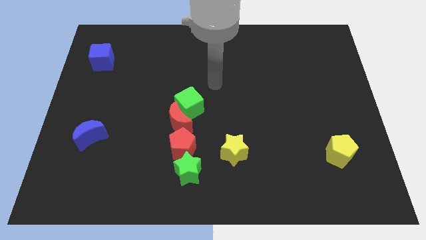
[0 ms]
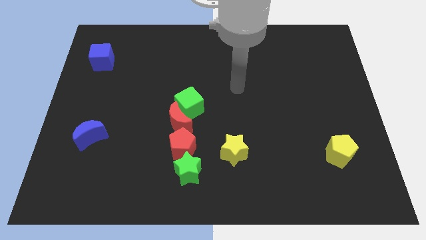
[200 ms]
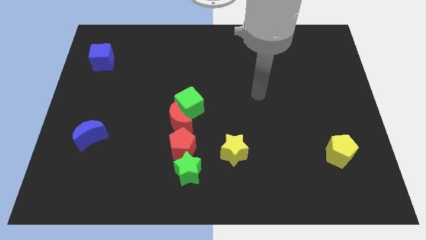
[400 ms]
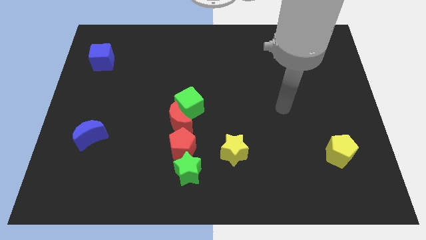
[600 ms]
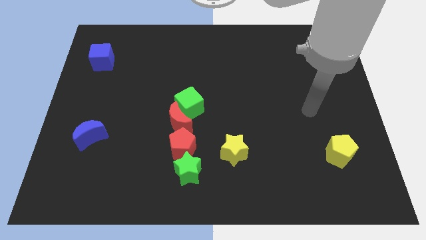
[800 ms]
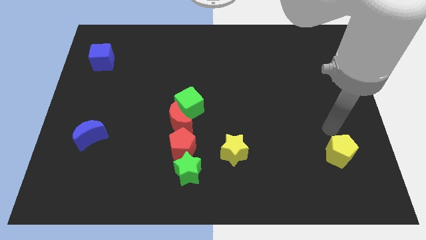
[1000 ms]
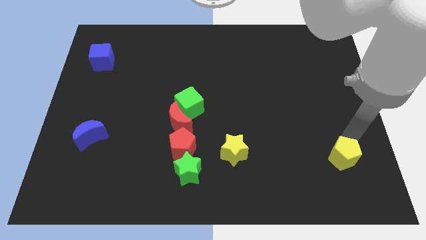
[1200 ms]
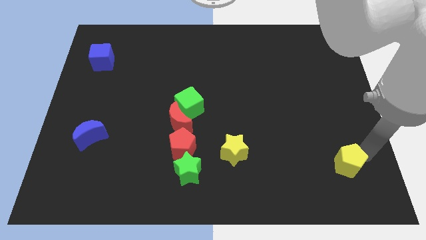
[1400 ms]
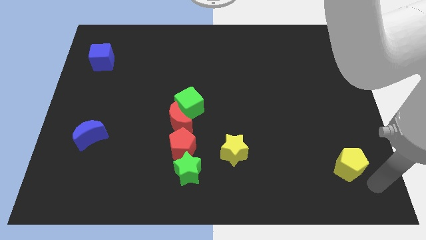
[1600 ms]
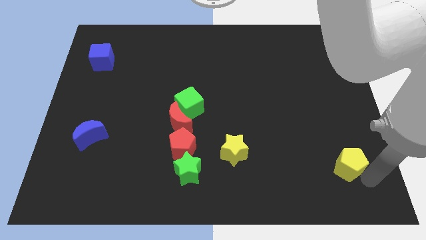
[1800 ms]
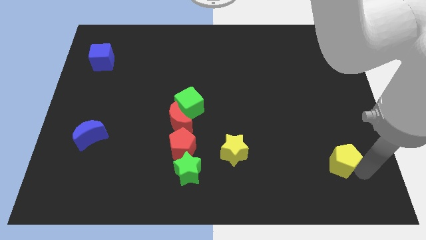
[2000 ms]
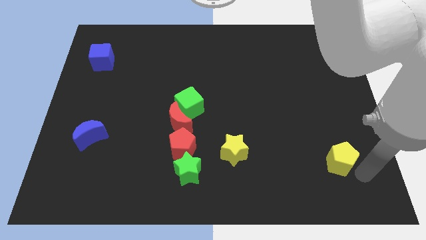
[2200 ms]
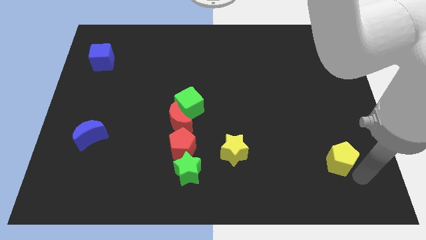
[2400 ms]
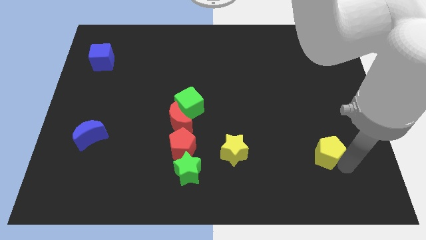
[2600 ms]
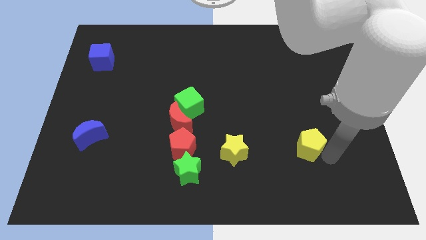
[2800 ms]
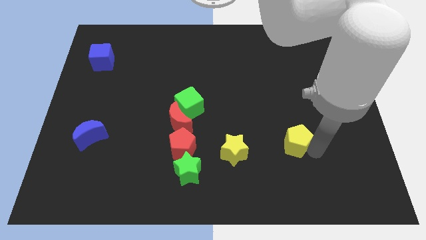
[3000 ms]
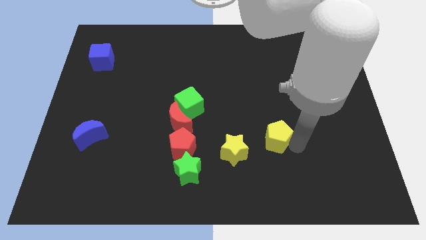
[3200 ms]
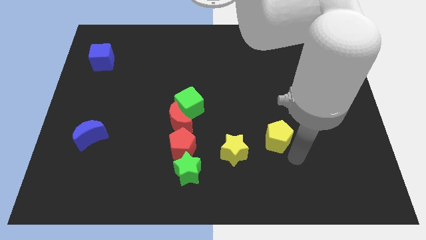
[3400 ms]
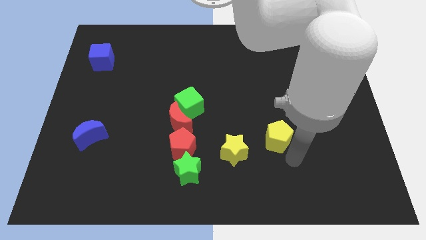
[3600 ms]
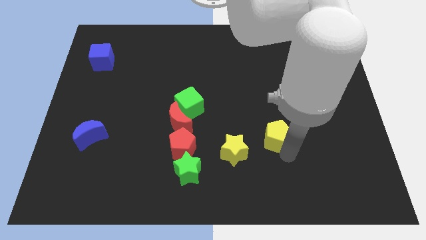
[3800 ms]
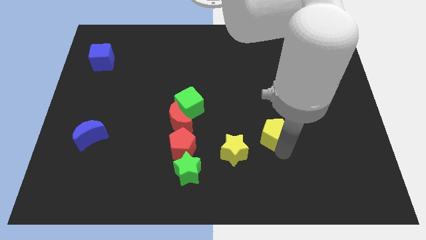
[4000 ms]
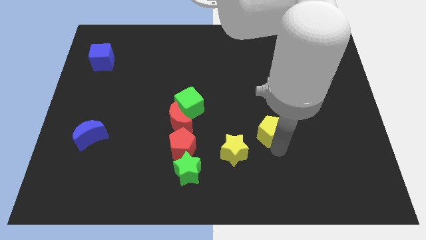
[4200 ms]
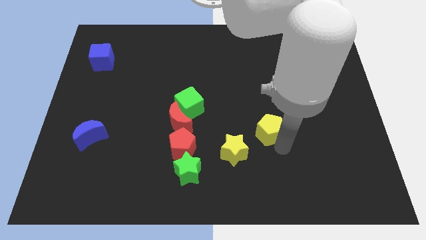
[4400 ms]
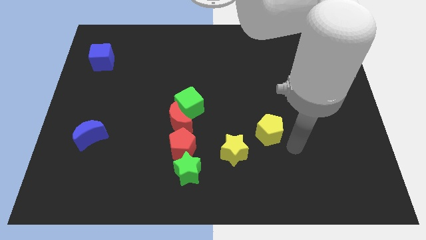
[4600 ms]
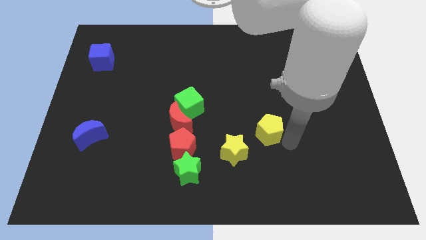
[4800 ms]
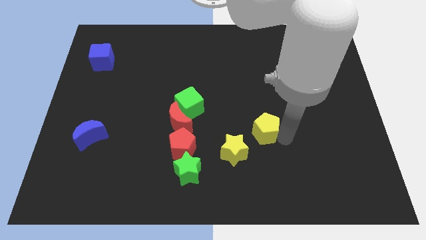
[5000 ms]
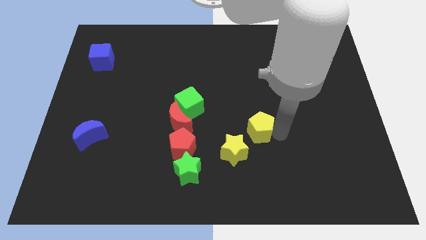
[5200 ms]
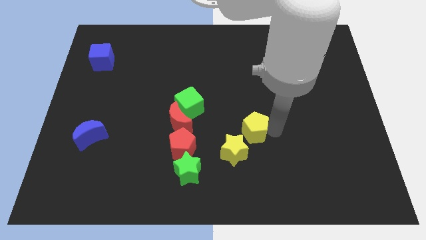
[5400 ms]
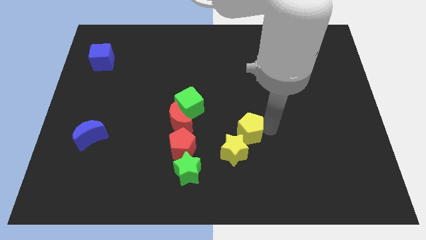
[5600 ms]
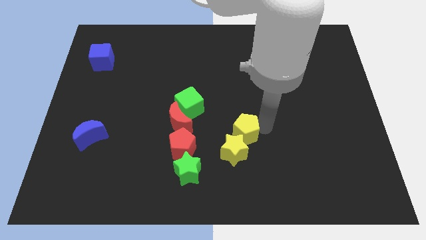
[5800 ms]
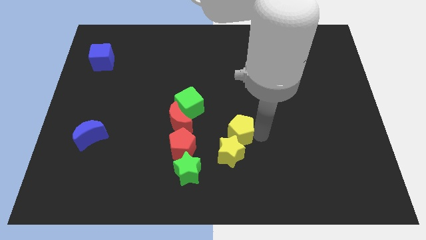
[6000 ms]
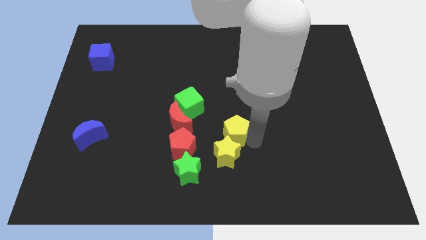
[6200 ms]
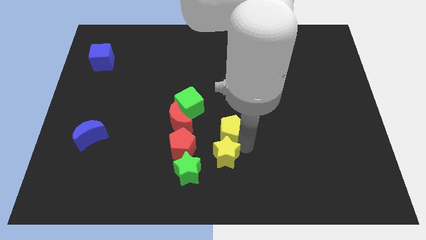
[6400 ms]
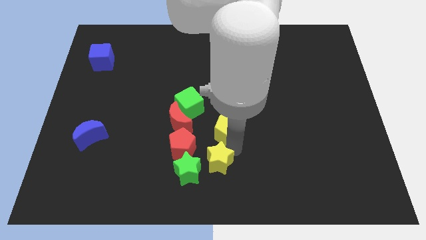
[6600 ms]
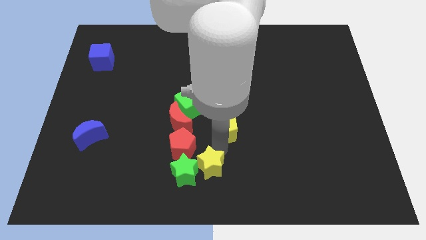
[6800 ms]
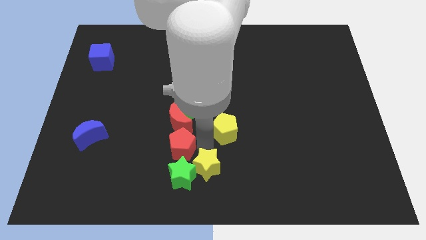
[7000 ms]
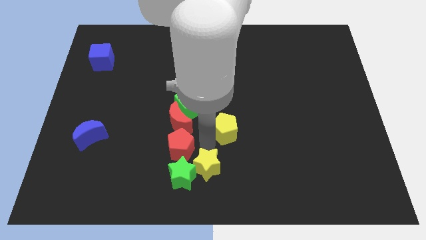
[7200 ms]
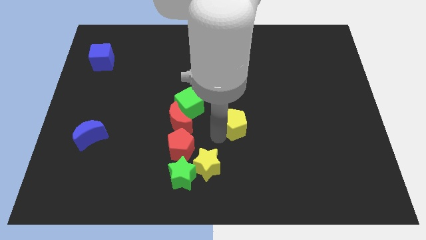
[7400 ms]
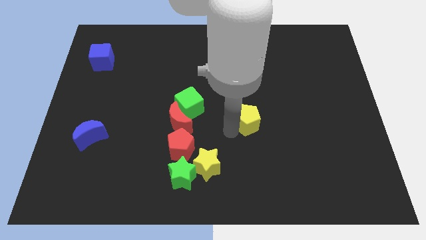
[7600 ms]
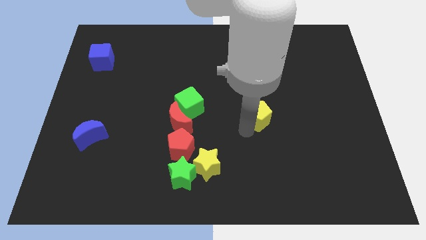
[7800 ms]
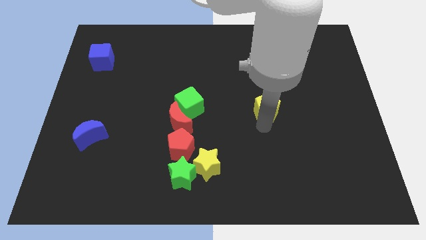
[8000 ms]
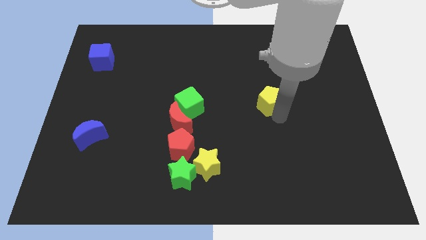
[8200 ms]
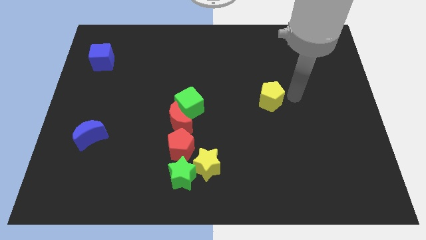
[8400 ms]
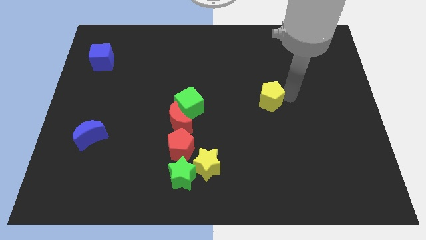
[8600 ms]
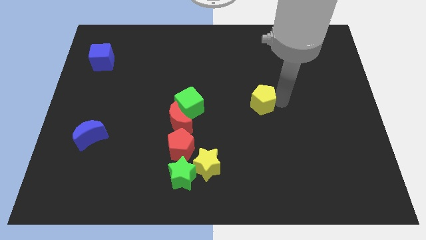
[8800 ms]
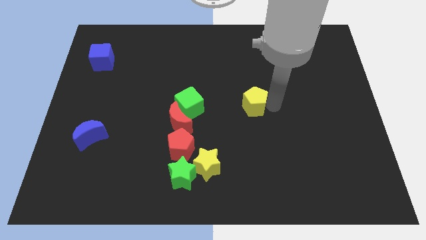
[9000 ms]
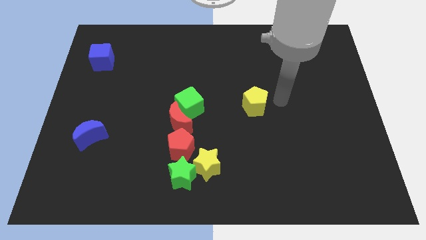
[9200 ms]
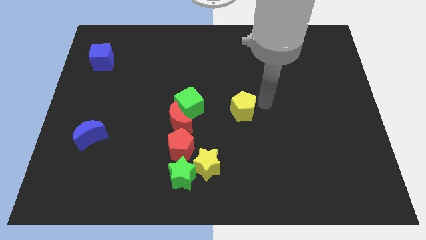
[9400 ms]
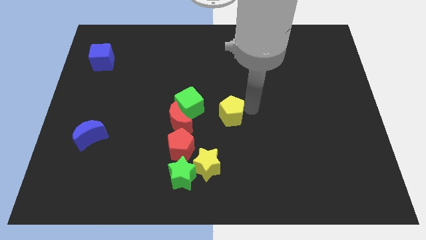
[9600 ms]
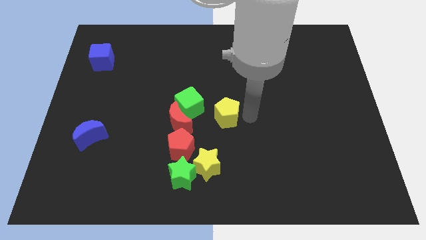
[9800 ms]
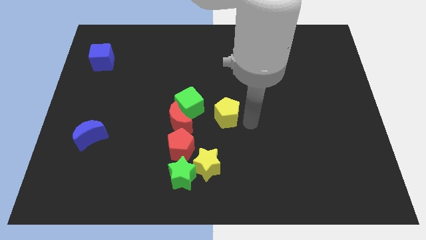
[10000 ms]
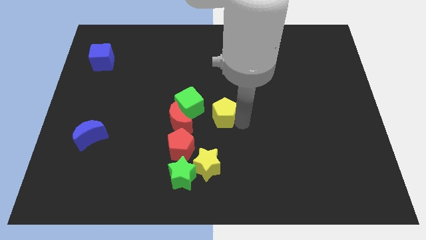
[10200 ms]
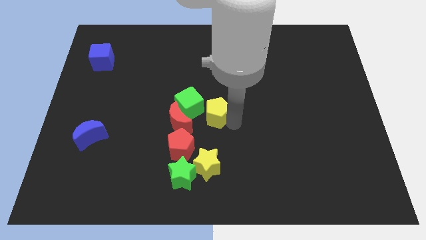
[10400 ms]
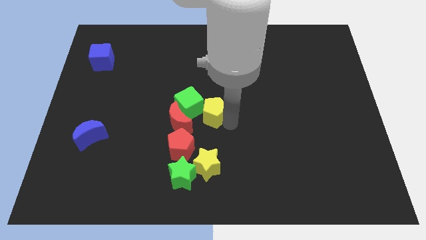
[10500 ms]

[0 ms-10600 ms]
put the yellow pentagon next to the green cube

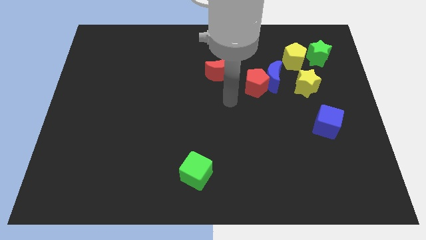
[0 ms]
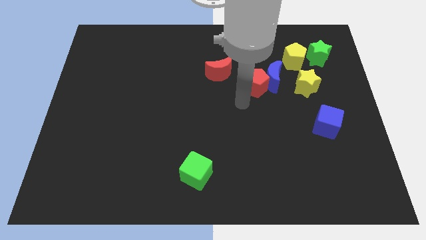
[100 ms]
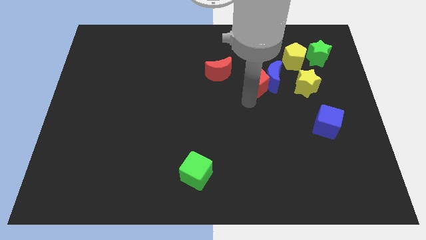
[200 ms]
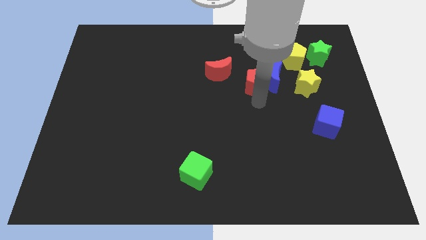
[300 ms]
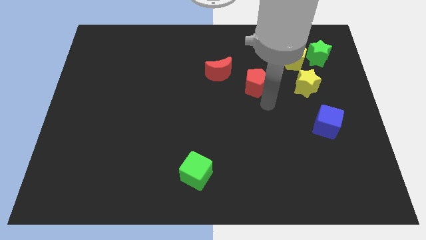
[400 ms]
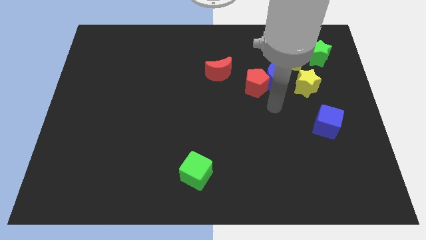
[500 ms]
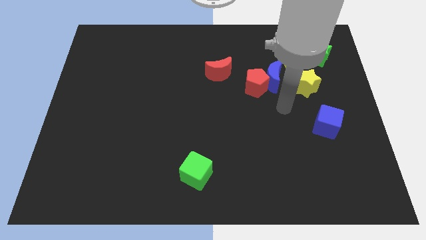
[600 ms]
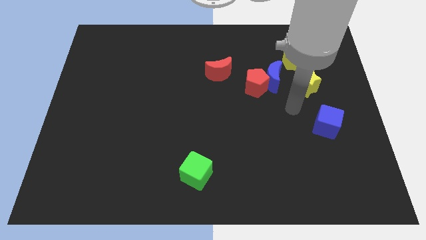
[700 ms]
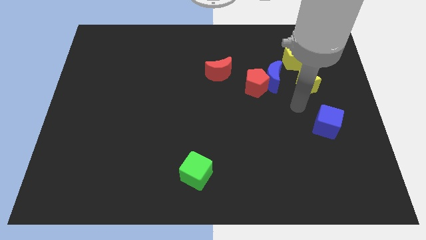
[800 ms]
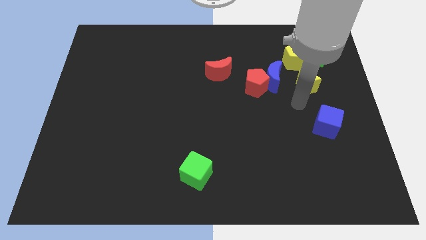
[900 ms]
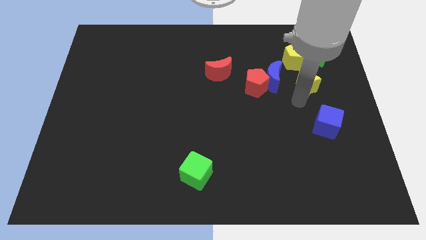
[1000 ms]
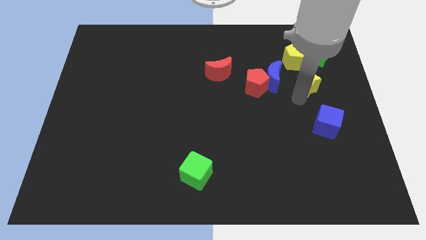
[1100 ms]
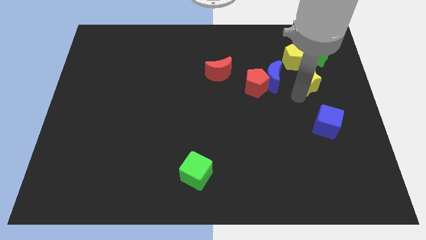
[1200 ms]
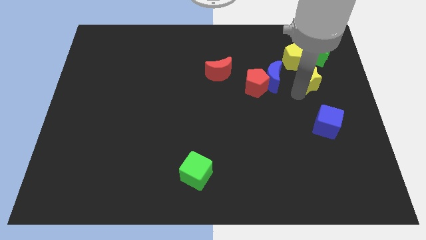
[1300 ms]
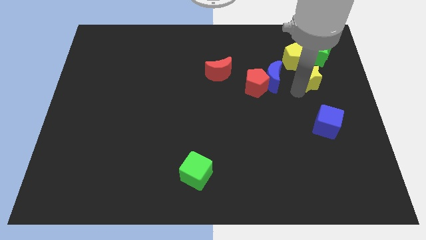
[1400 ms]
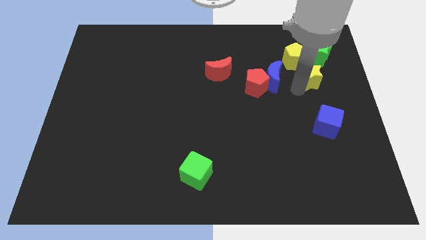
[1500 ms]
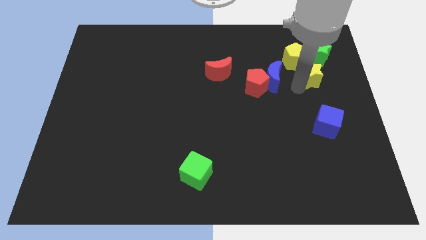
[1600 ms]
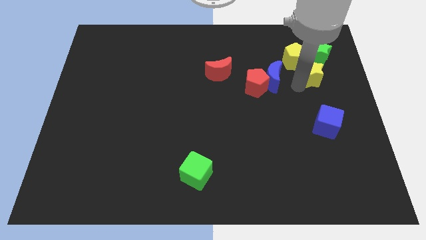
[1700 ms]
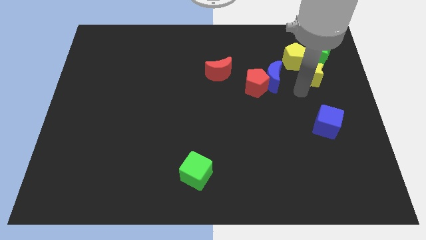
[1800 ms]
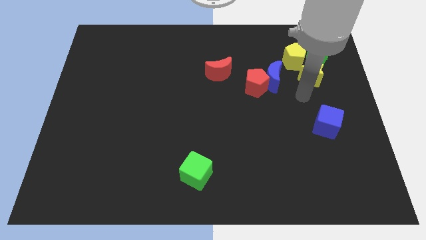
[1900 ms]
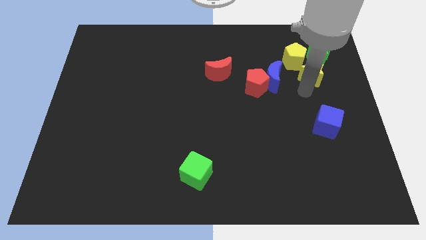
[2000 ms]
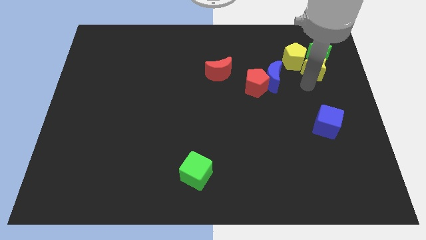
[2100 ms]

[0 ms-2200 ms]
put the yellow star to the green star
